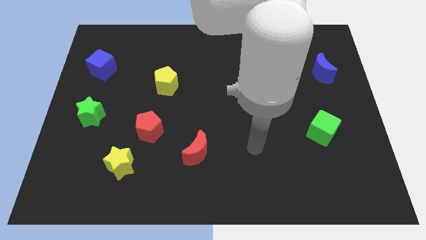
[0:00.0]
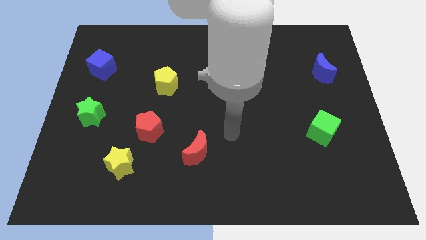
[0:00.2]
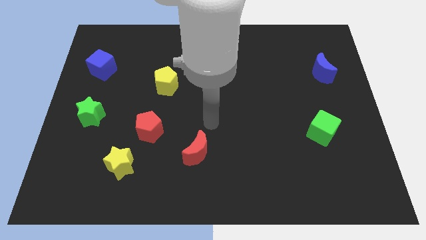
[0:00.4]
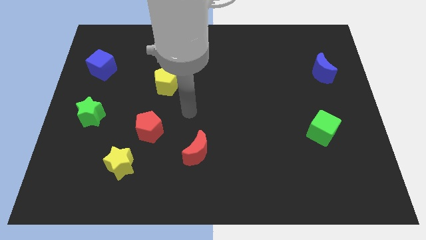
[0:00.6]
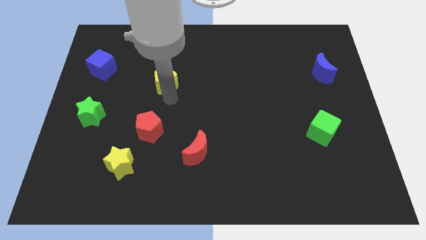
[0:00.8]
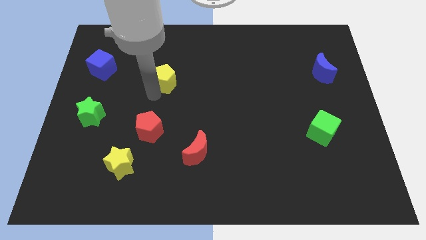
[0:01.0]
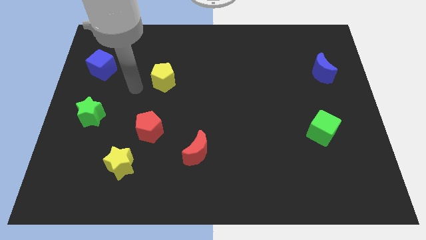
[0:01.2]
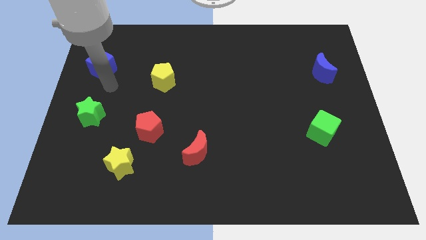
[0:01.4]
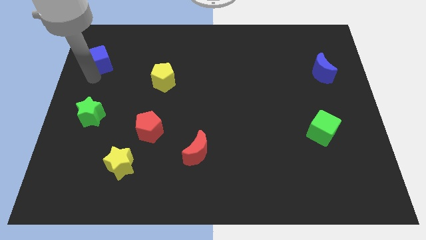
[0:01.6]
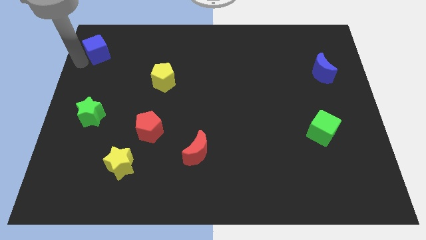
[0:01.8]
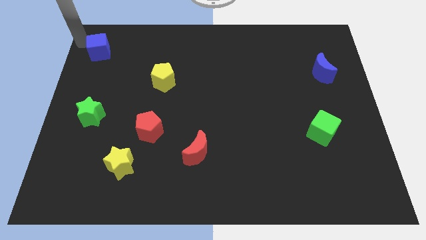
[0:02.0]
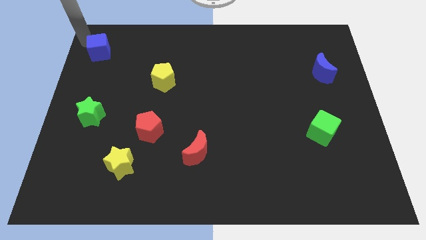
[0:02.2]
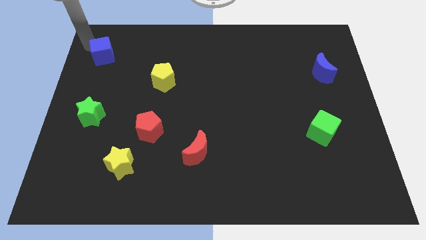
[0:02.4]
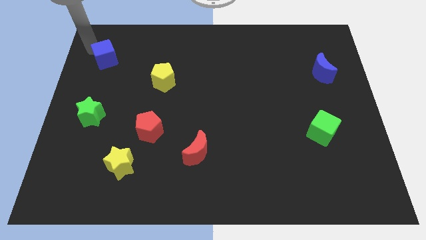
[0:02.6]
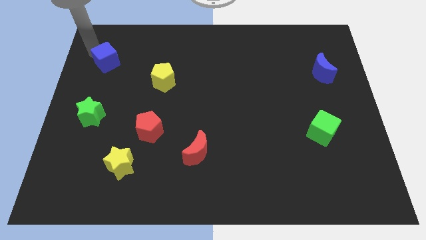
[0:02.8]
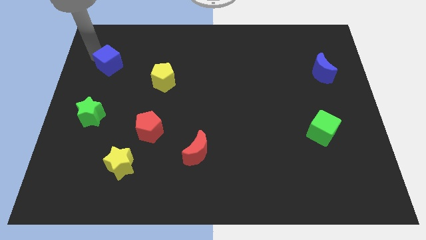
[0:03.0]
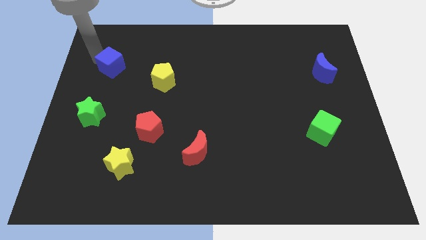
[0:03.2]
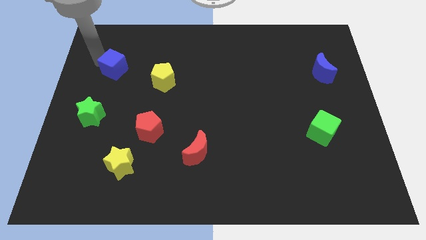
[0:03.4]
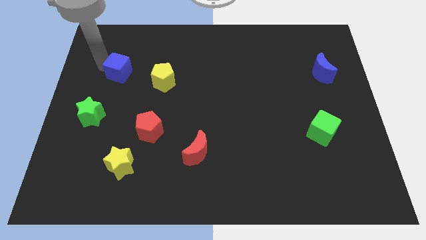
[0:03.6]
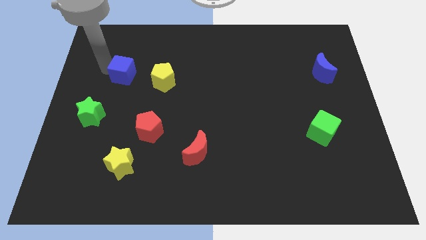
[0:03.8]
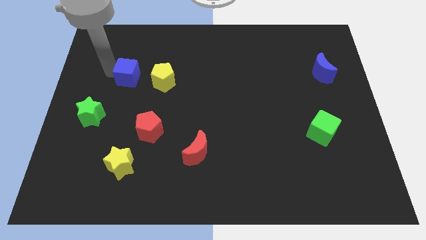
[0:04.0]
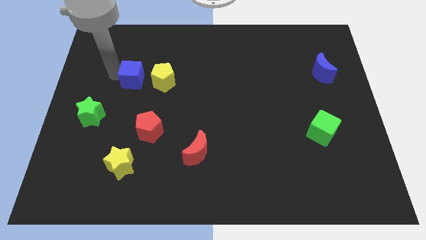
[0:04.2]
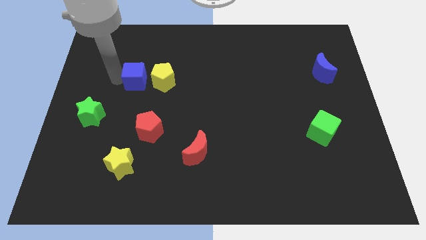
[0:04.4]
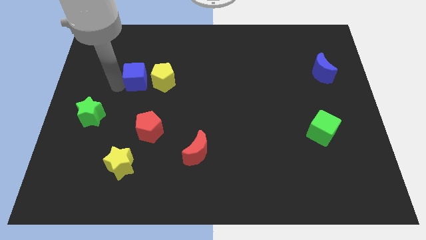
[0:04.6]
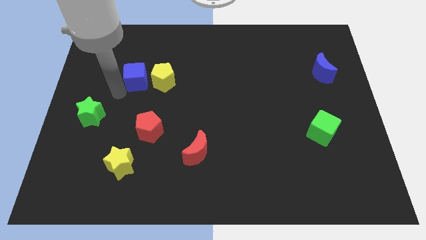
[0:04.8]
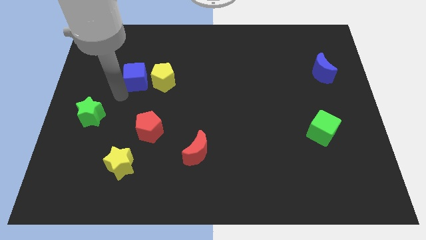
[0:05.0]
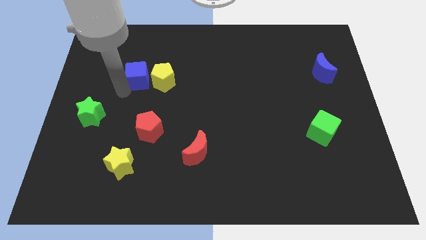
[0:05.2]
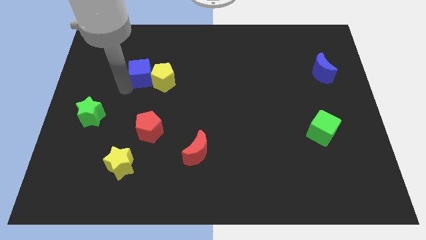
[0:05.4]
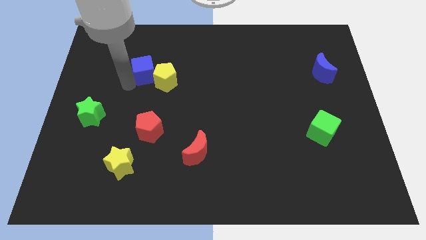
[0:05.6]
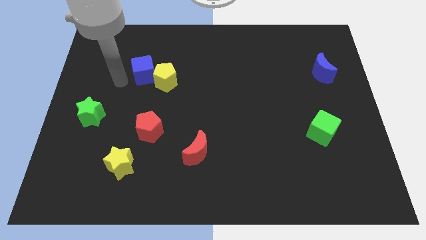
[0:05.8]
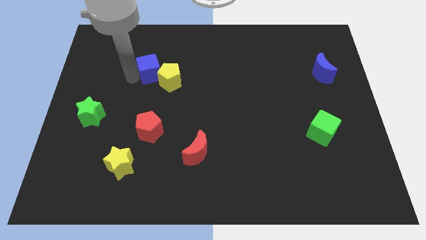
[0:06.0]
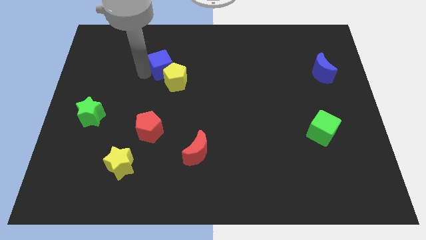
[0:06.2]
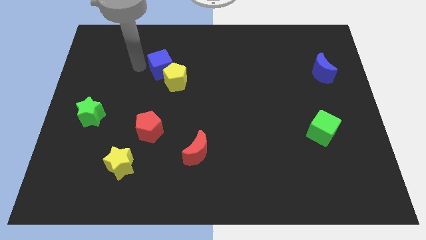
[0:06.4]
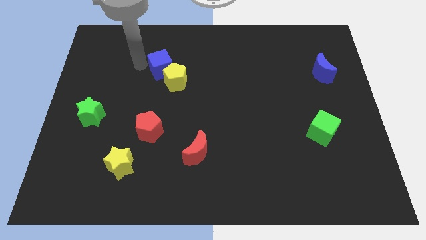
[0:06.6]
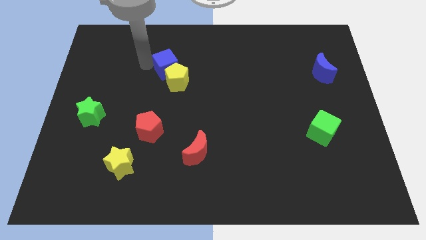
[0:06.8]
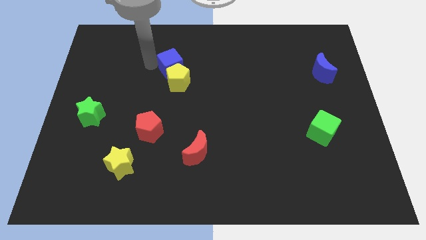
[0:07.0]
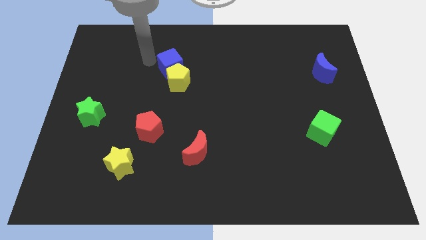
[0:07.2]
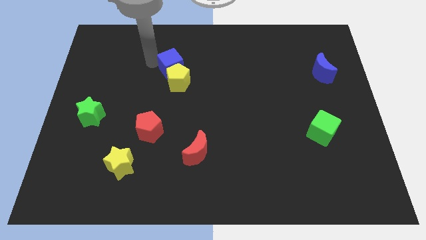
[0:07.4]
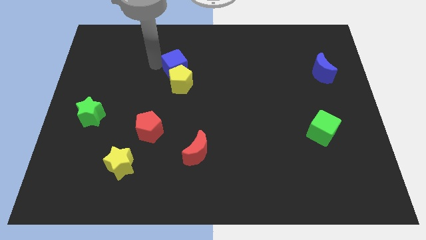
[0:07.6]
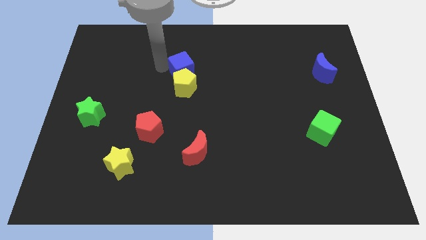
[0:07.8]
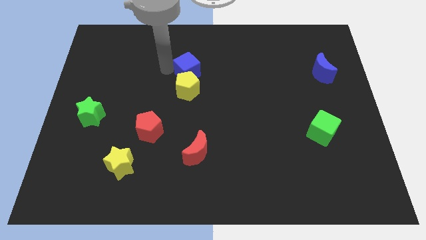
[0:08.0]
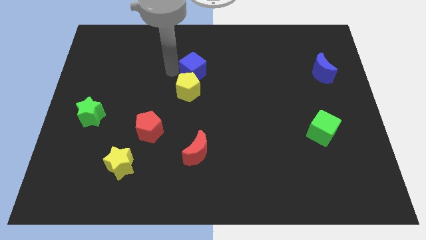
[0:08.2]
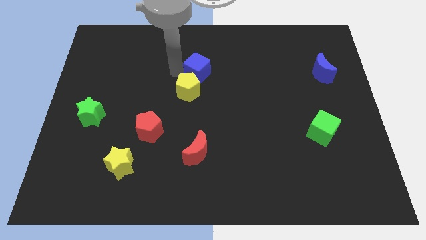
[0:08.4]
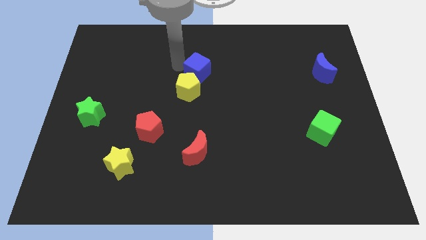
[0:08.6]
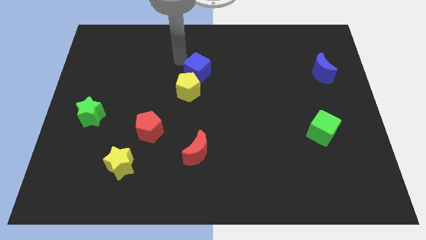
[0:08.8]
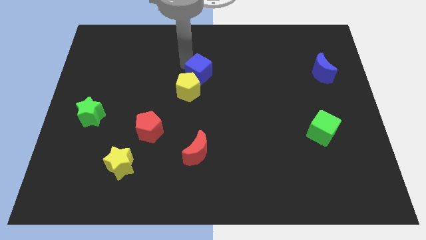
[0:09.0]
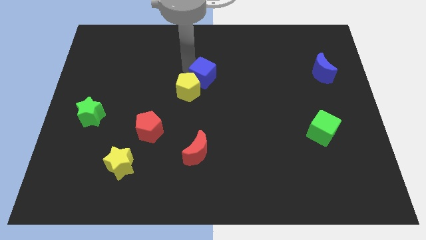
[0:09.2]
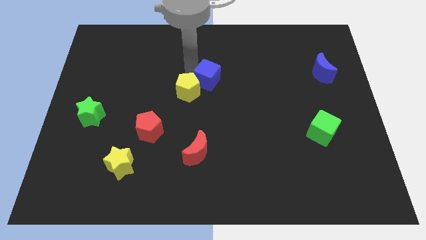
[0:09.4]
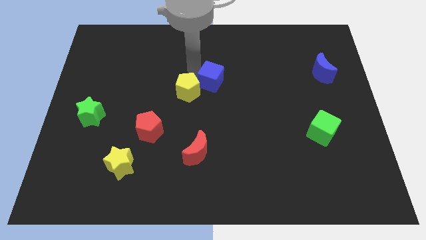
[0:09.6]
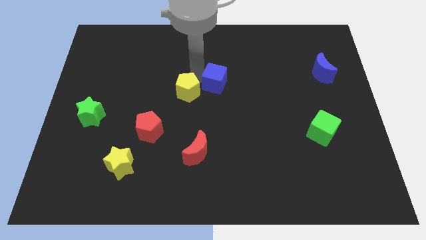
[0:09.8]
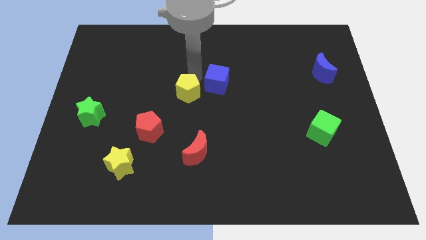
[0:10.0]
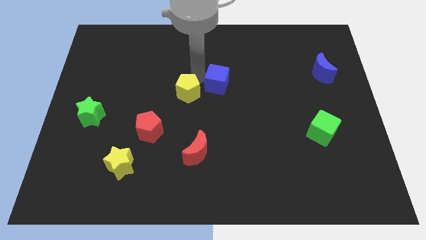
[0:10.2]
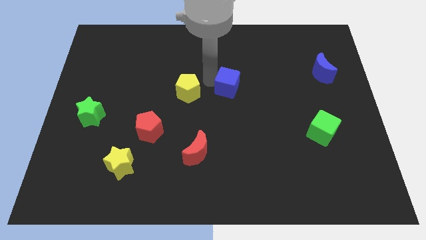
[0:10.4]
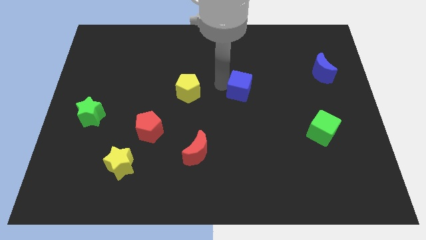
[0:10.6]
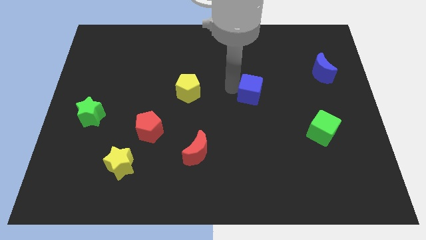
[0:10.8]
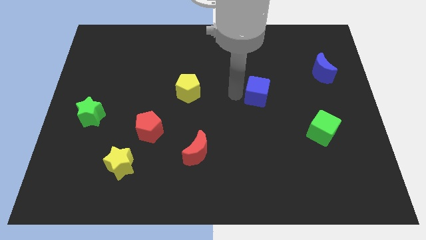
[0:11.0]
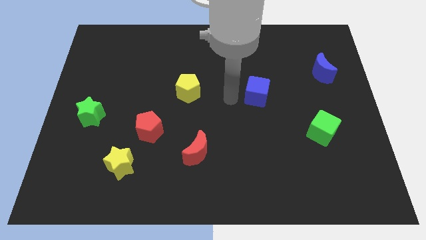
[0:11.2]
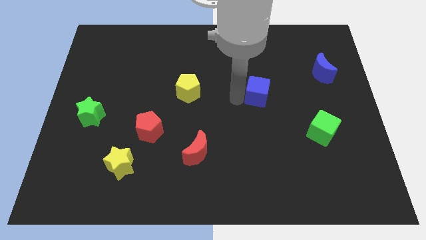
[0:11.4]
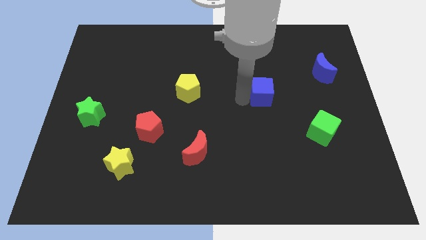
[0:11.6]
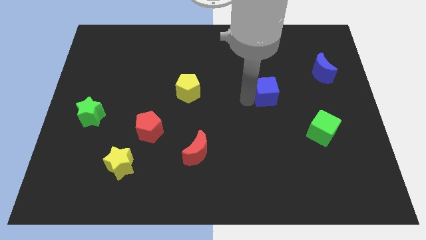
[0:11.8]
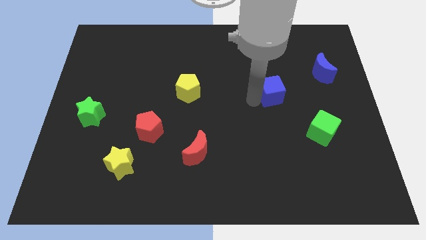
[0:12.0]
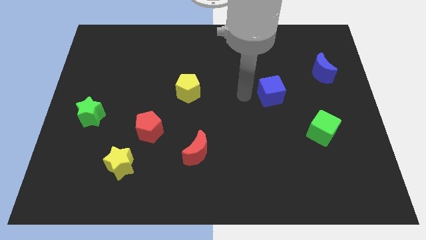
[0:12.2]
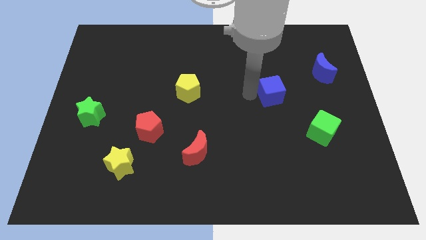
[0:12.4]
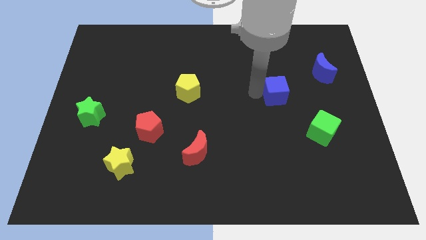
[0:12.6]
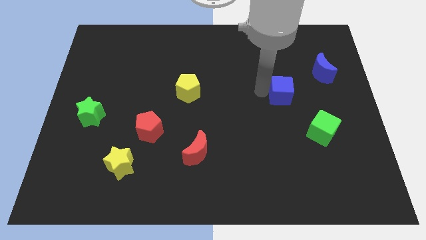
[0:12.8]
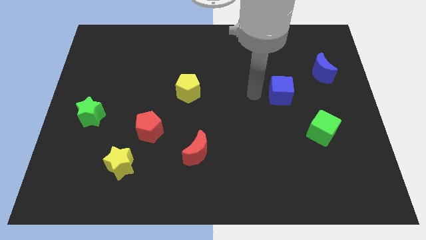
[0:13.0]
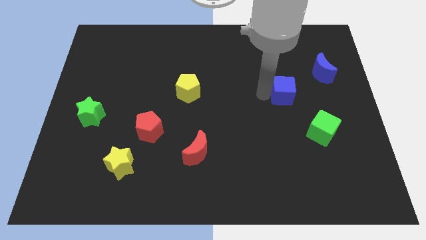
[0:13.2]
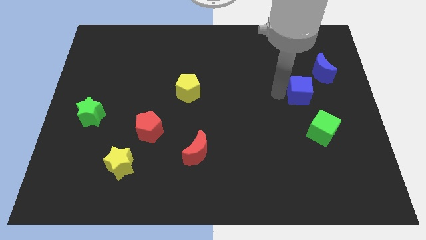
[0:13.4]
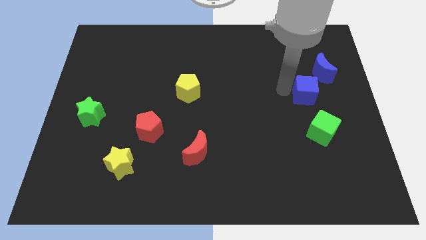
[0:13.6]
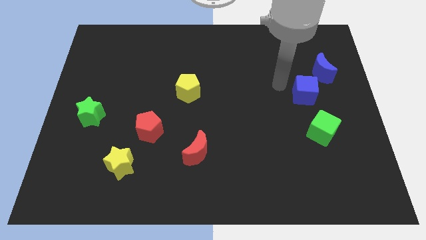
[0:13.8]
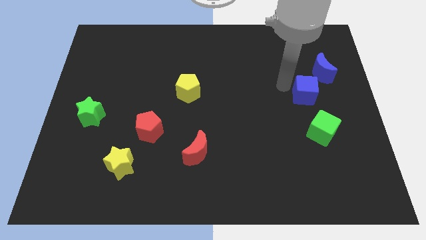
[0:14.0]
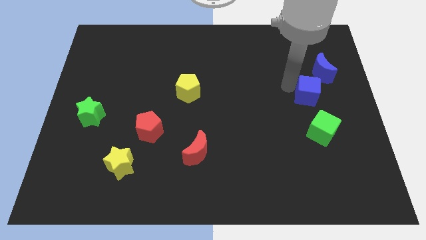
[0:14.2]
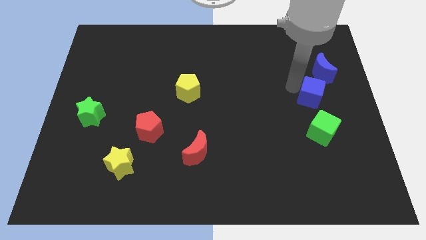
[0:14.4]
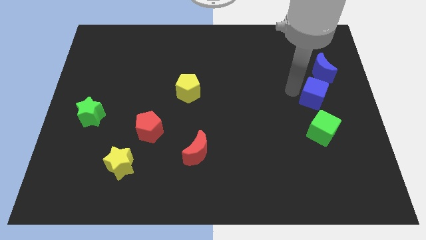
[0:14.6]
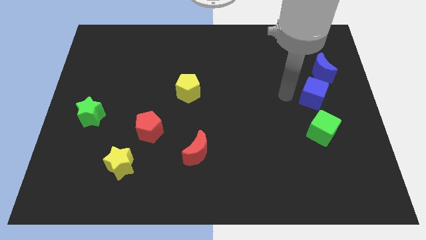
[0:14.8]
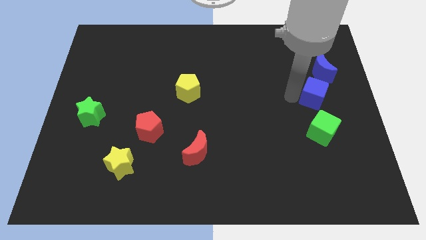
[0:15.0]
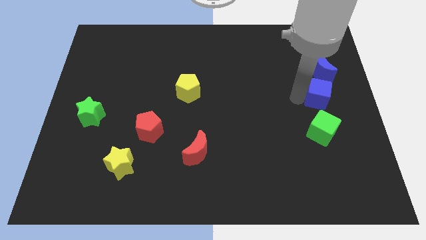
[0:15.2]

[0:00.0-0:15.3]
push the blue cube to the right side
